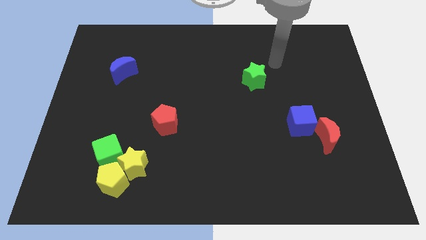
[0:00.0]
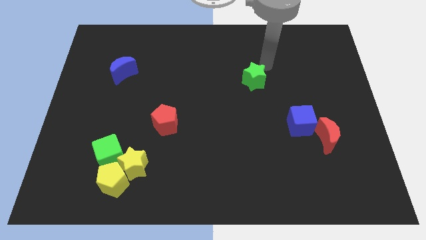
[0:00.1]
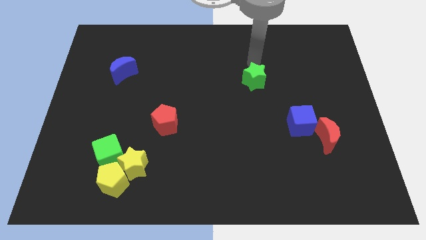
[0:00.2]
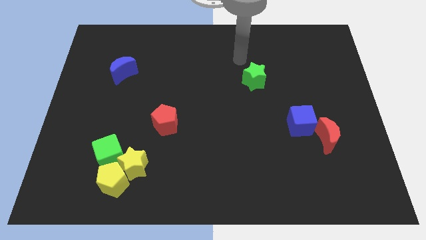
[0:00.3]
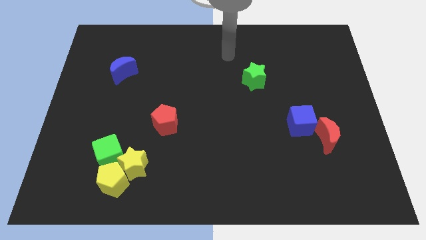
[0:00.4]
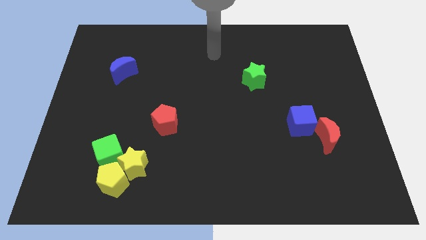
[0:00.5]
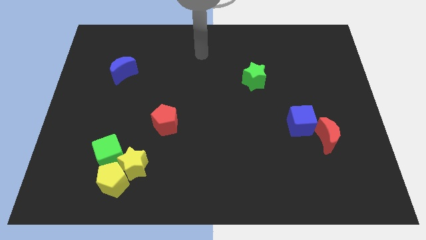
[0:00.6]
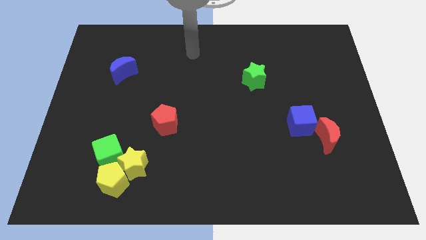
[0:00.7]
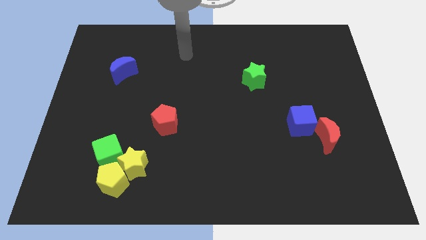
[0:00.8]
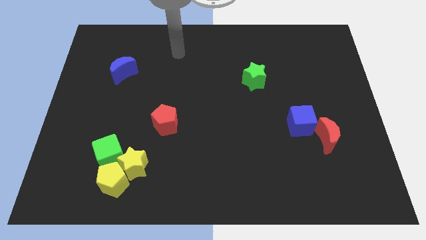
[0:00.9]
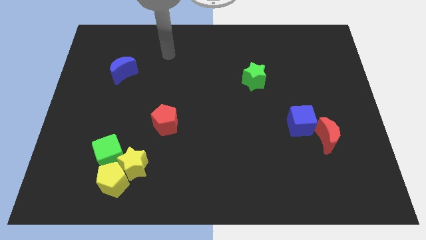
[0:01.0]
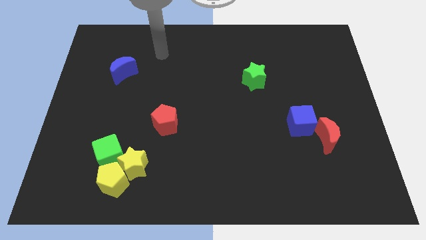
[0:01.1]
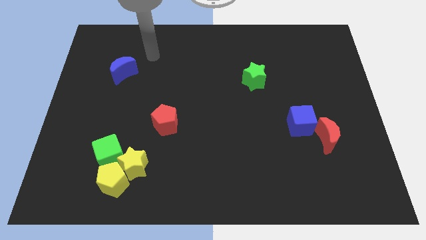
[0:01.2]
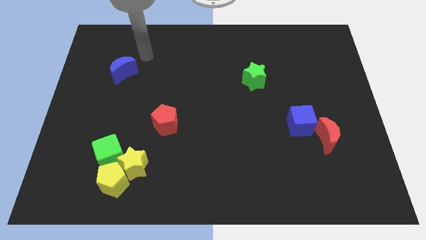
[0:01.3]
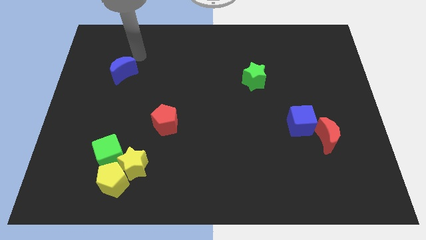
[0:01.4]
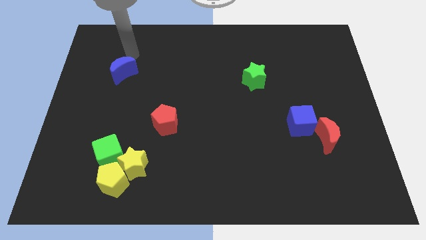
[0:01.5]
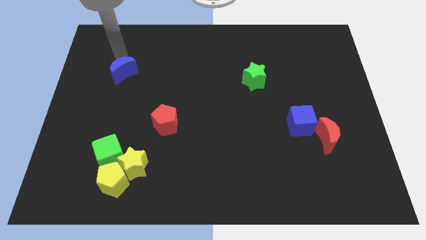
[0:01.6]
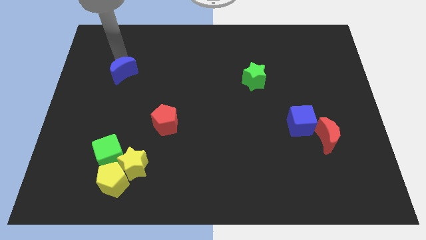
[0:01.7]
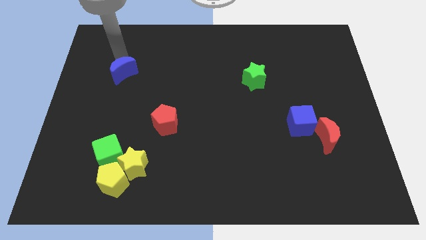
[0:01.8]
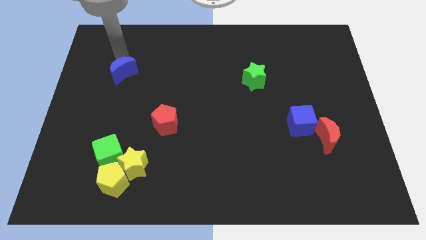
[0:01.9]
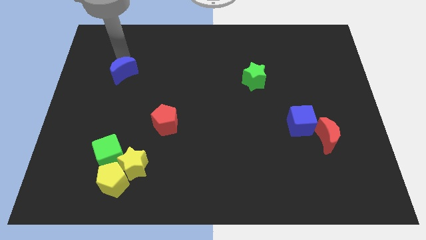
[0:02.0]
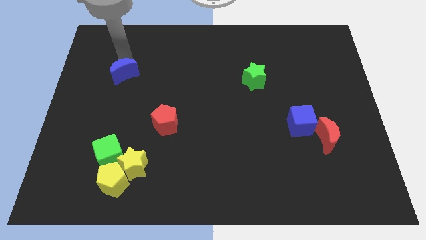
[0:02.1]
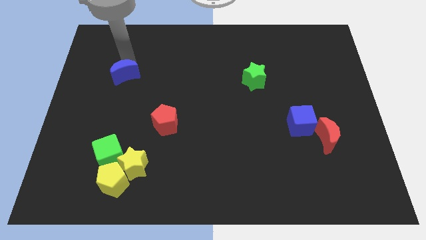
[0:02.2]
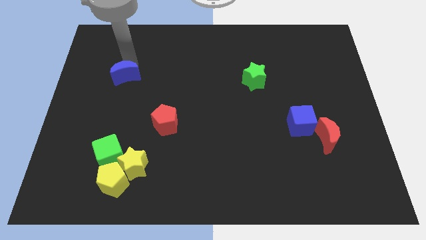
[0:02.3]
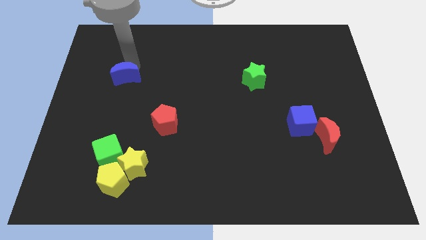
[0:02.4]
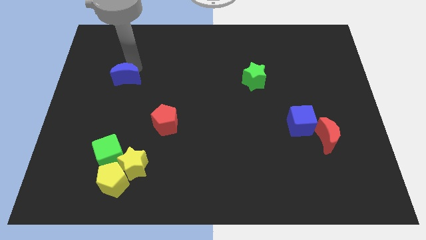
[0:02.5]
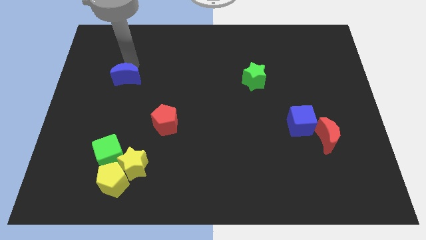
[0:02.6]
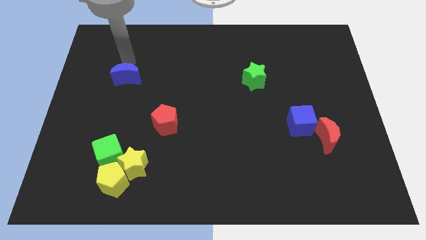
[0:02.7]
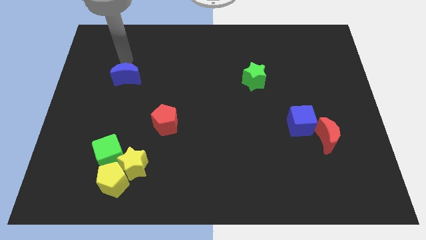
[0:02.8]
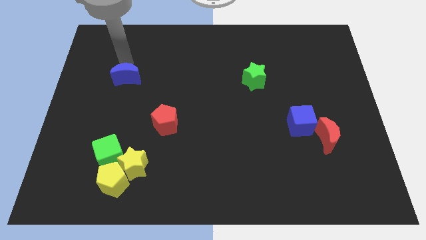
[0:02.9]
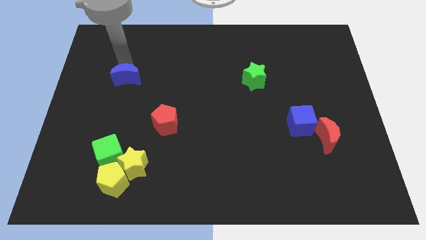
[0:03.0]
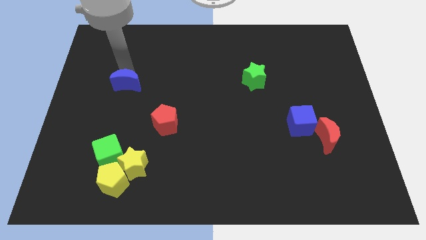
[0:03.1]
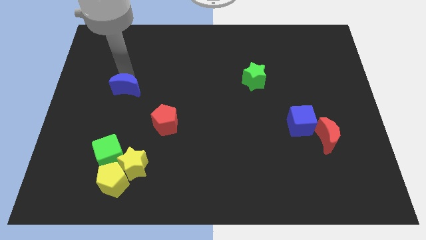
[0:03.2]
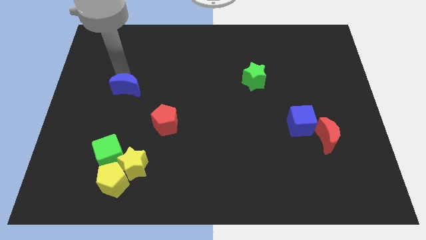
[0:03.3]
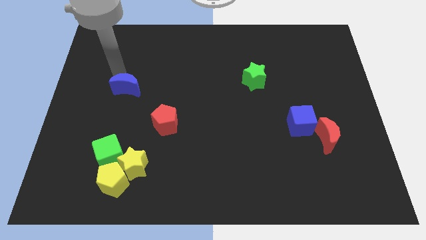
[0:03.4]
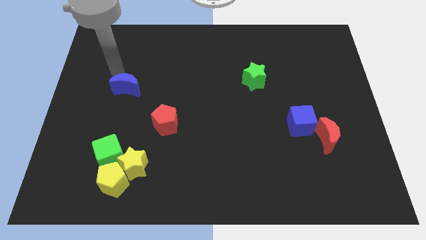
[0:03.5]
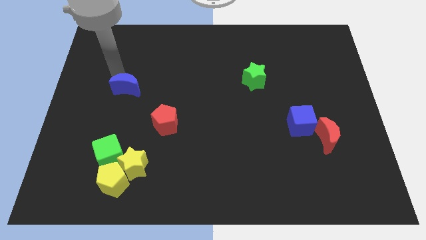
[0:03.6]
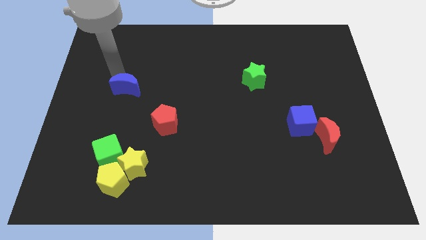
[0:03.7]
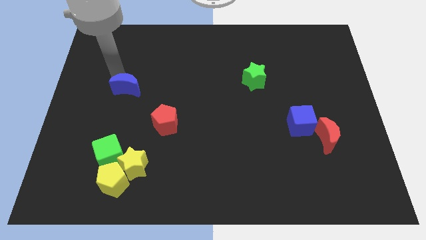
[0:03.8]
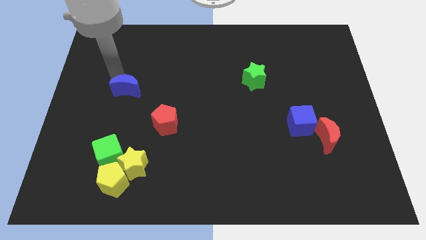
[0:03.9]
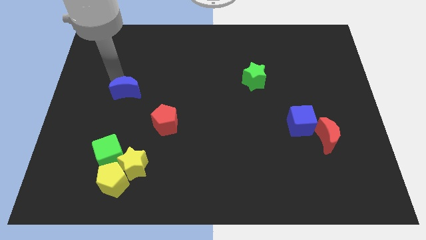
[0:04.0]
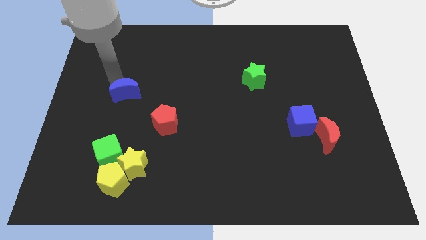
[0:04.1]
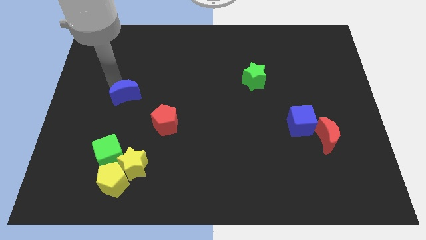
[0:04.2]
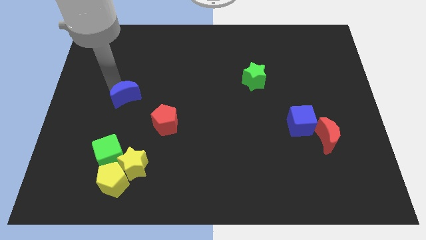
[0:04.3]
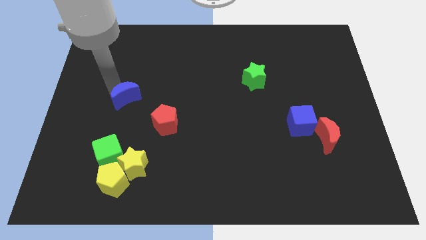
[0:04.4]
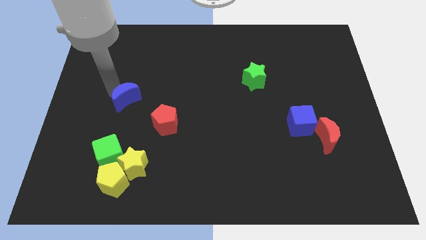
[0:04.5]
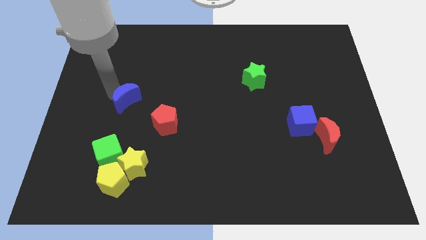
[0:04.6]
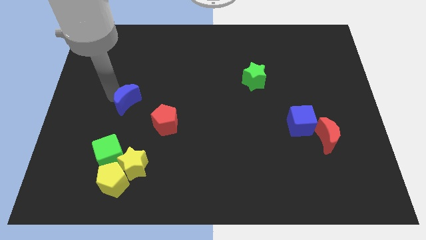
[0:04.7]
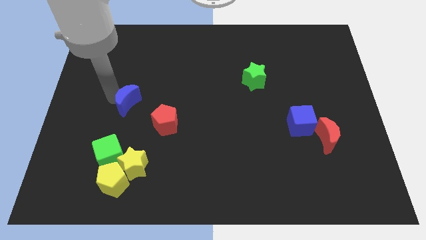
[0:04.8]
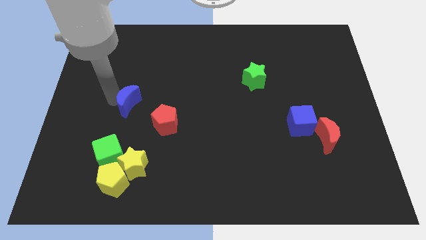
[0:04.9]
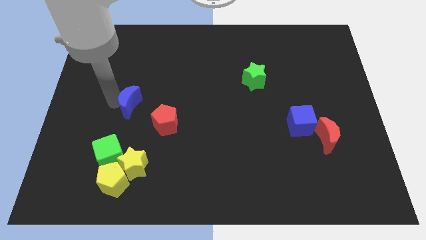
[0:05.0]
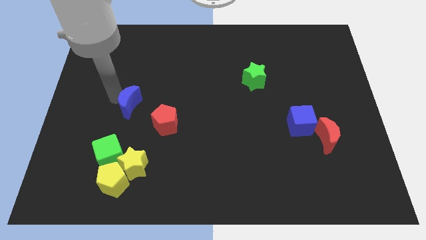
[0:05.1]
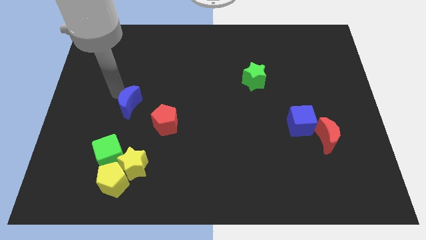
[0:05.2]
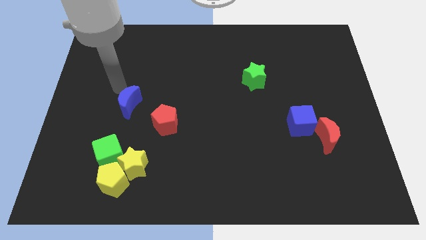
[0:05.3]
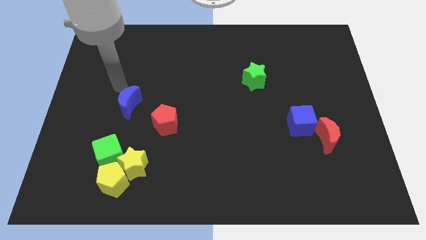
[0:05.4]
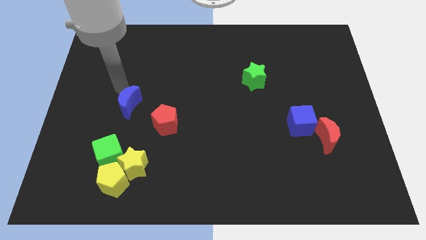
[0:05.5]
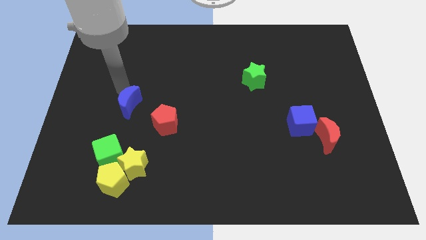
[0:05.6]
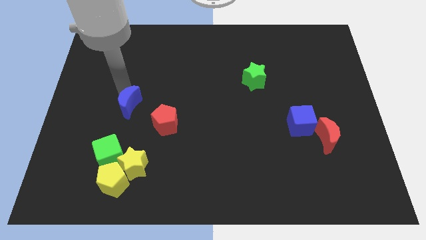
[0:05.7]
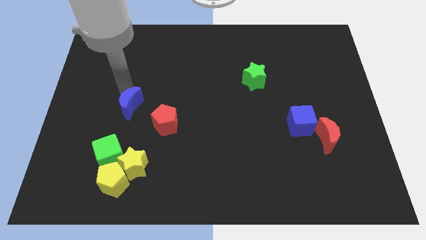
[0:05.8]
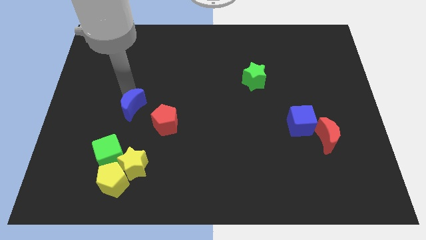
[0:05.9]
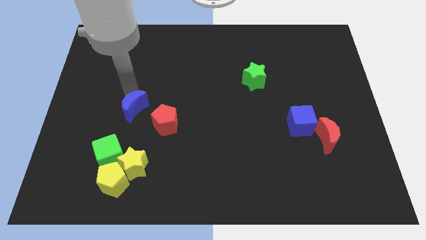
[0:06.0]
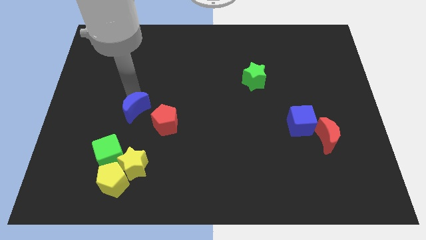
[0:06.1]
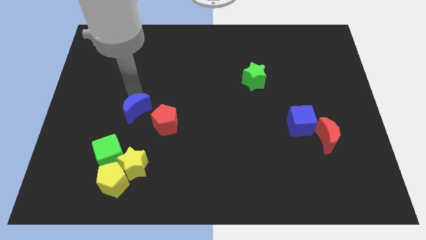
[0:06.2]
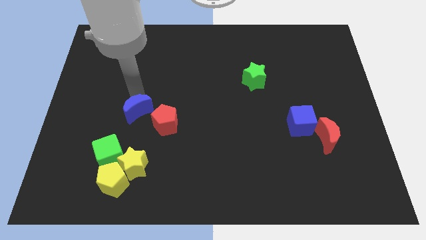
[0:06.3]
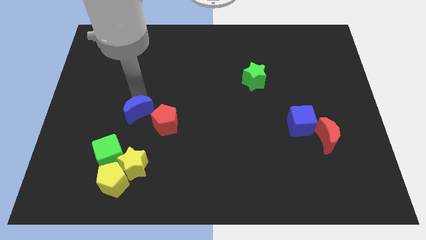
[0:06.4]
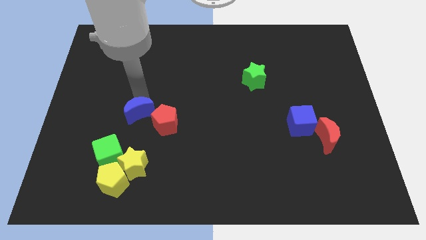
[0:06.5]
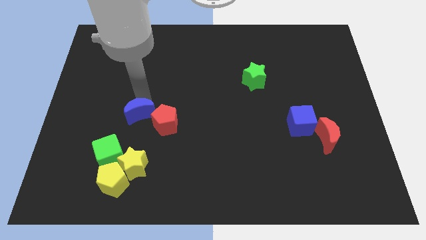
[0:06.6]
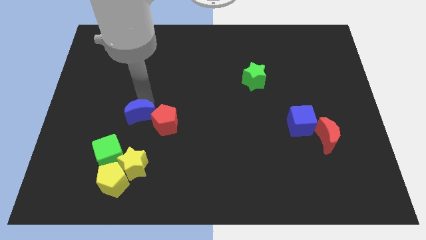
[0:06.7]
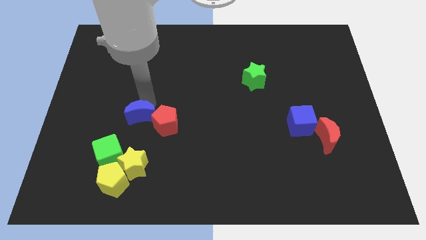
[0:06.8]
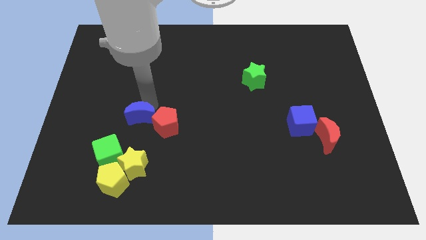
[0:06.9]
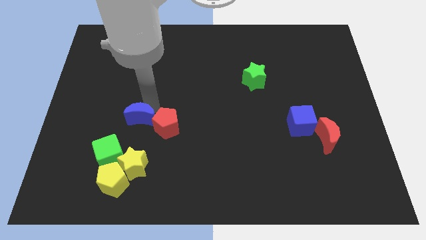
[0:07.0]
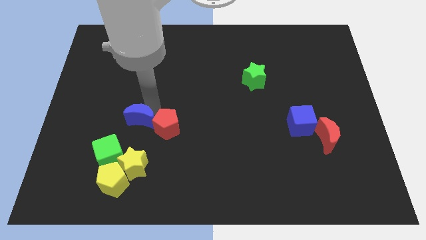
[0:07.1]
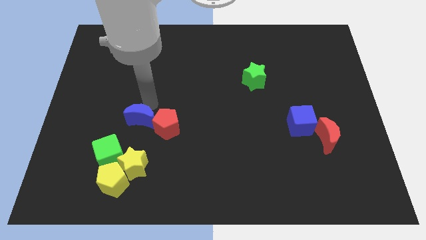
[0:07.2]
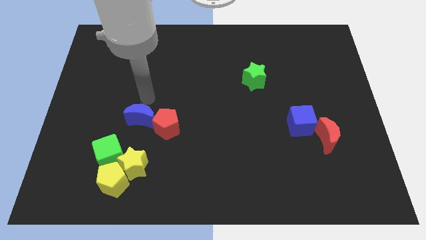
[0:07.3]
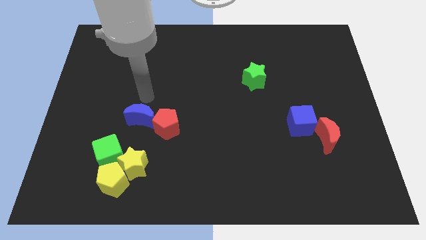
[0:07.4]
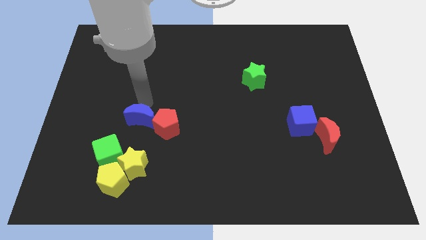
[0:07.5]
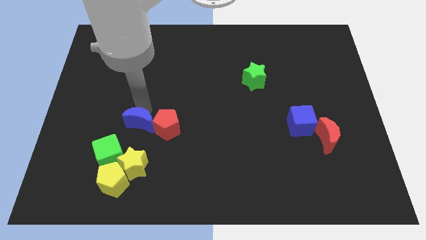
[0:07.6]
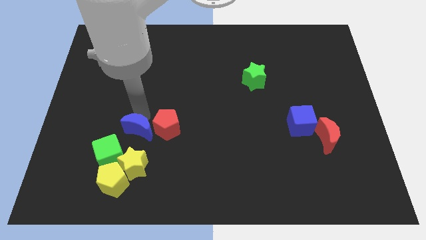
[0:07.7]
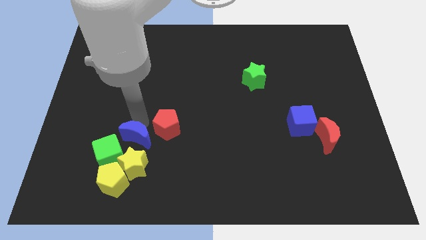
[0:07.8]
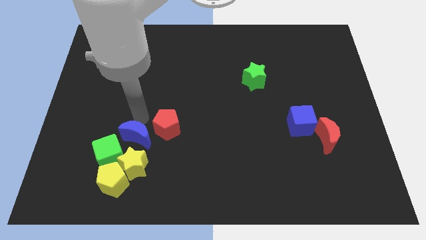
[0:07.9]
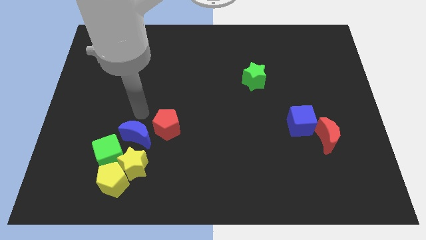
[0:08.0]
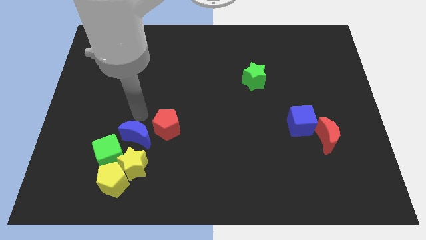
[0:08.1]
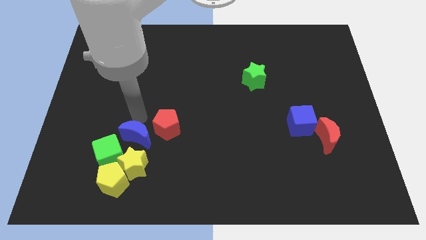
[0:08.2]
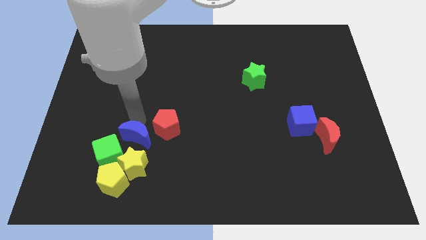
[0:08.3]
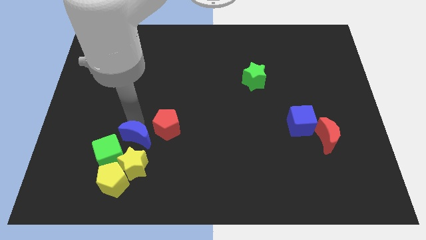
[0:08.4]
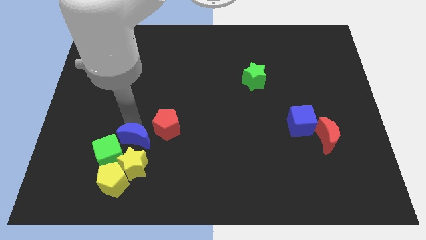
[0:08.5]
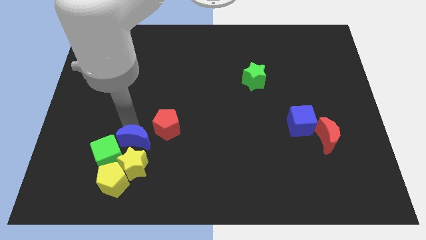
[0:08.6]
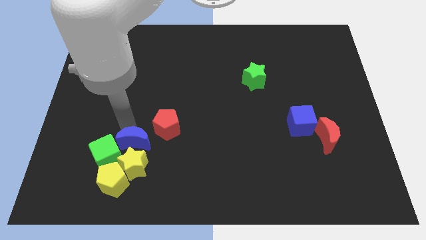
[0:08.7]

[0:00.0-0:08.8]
slide the blue moon close to the yellow star
